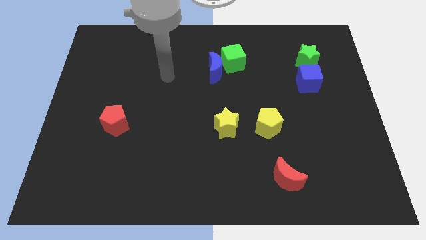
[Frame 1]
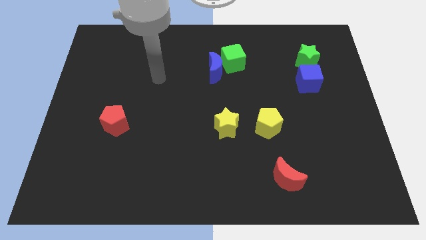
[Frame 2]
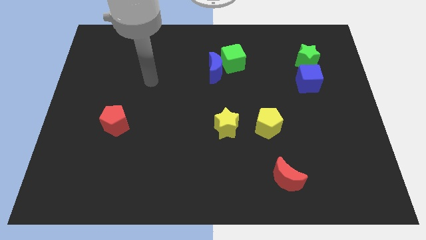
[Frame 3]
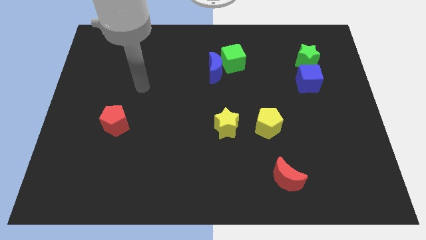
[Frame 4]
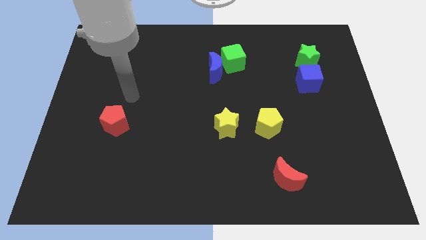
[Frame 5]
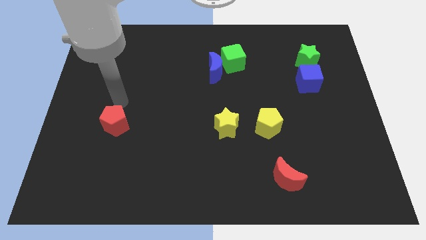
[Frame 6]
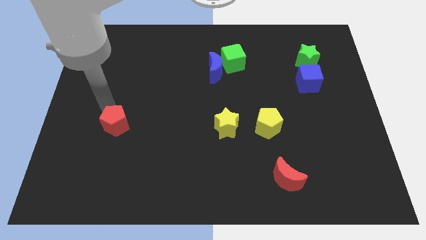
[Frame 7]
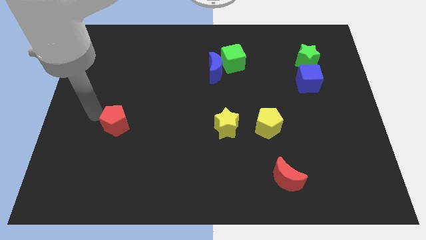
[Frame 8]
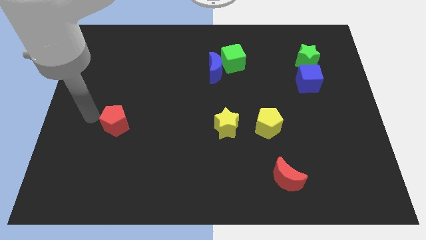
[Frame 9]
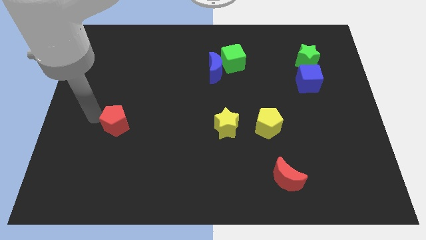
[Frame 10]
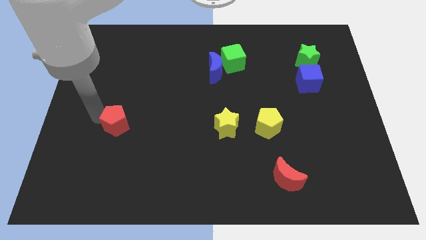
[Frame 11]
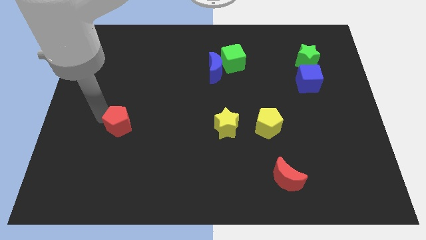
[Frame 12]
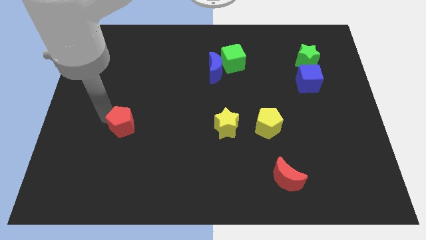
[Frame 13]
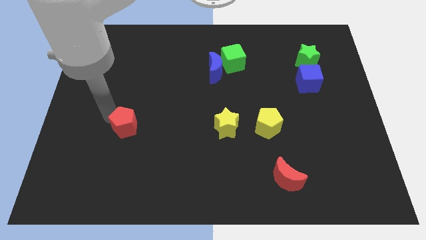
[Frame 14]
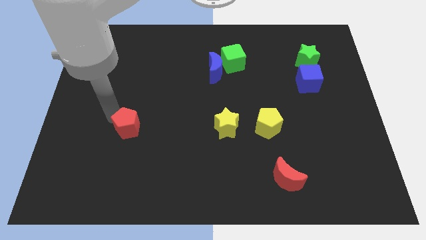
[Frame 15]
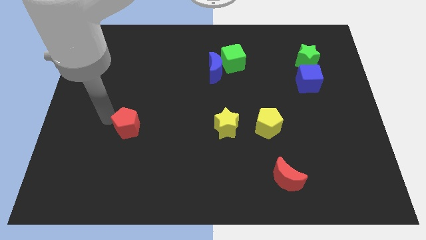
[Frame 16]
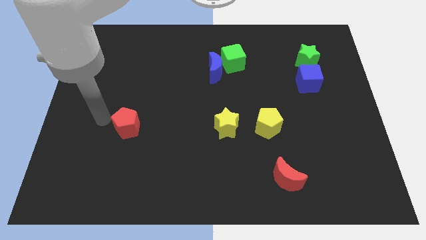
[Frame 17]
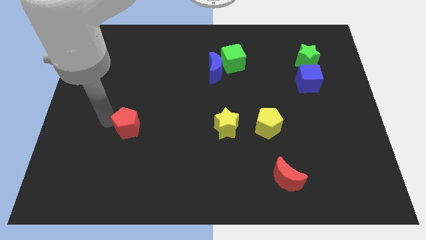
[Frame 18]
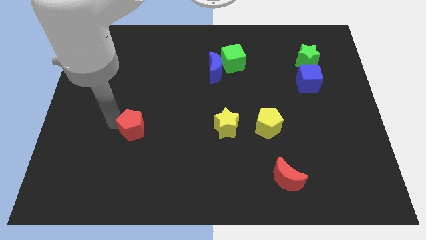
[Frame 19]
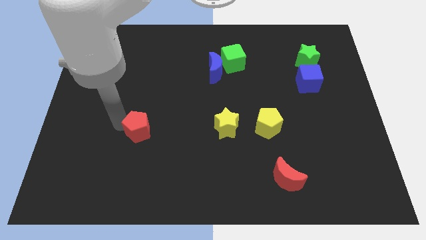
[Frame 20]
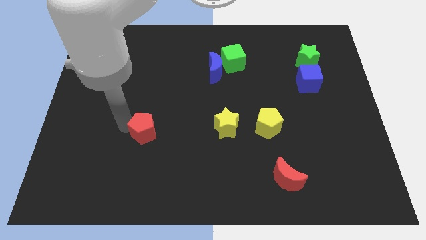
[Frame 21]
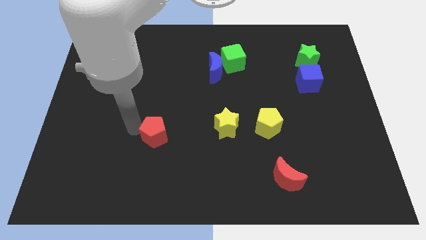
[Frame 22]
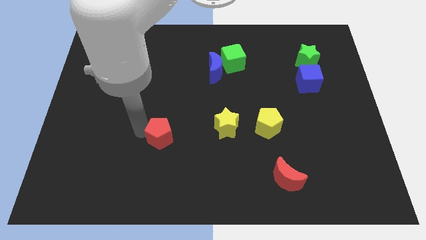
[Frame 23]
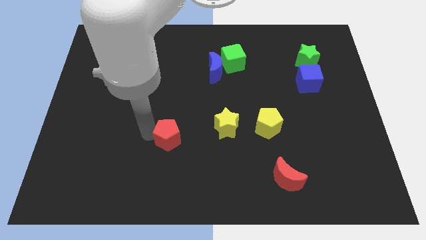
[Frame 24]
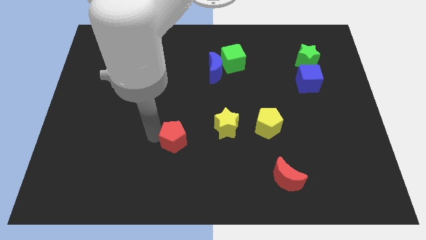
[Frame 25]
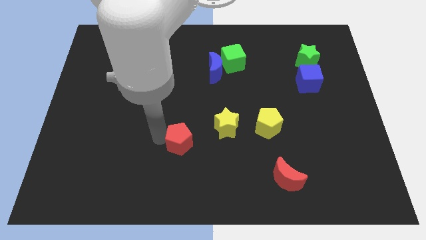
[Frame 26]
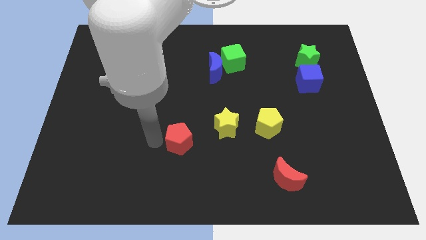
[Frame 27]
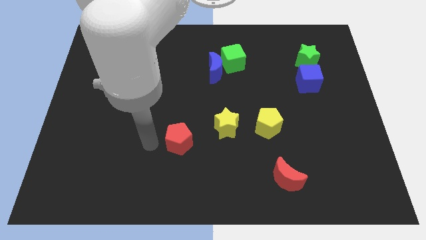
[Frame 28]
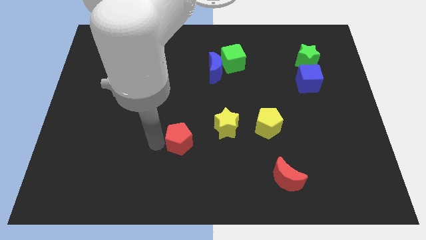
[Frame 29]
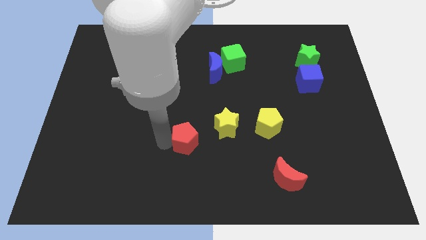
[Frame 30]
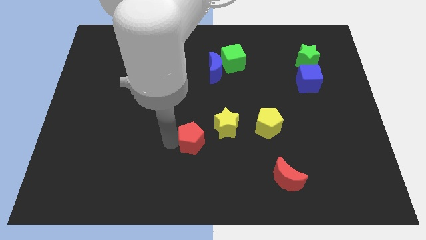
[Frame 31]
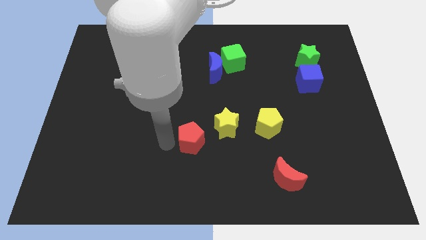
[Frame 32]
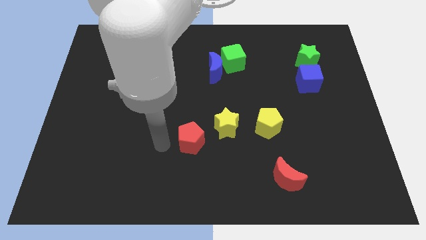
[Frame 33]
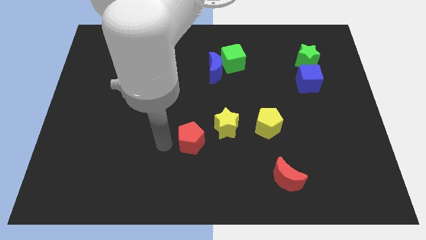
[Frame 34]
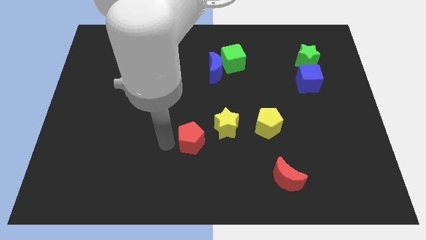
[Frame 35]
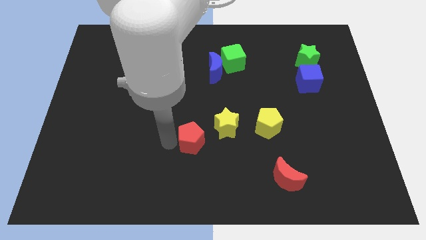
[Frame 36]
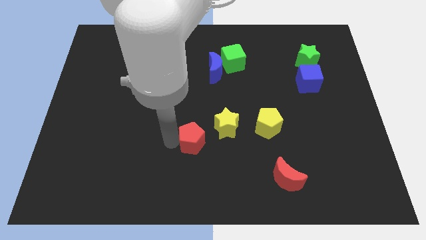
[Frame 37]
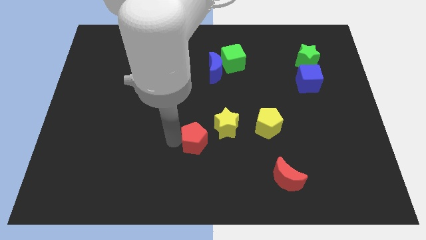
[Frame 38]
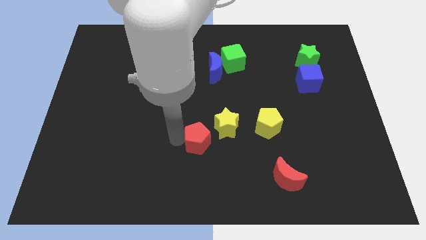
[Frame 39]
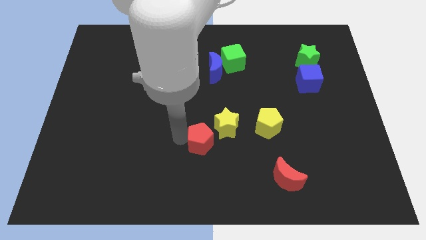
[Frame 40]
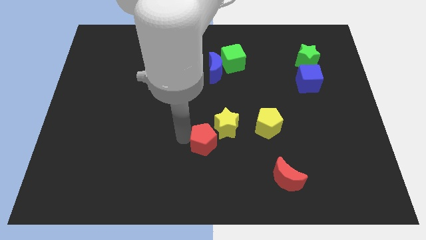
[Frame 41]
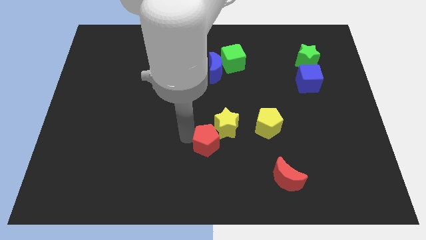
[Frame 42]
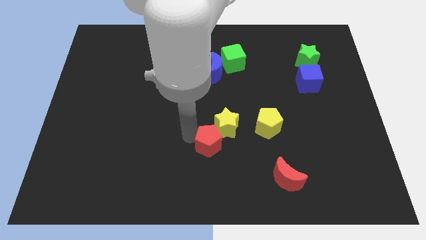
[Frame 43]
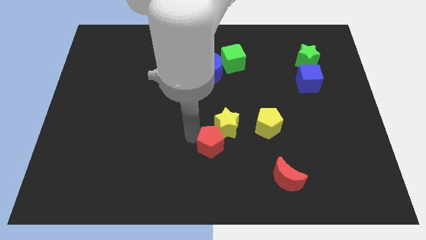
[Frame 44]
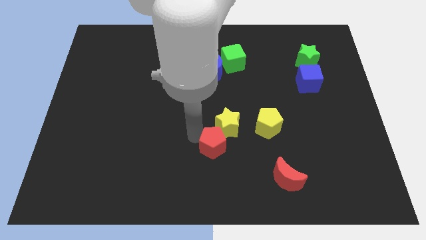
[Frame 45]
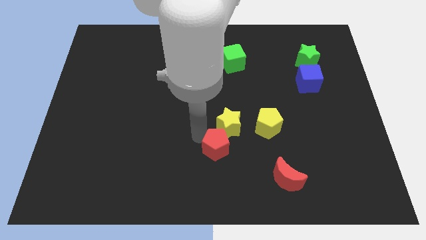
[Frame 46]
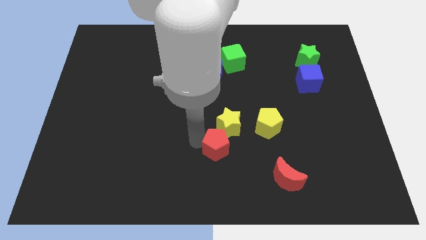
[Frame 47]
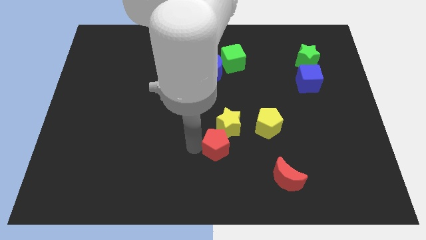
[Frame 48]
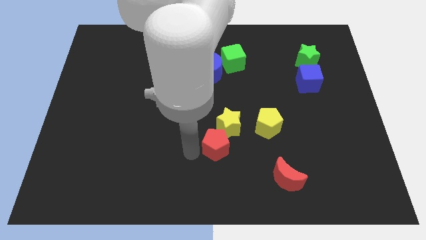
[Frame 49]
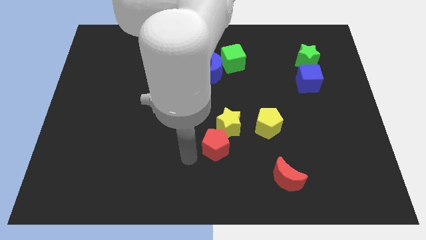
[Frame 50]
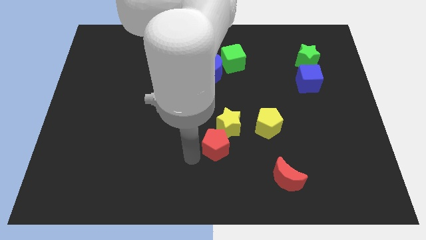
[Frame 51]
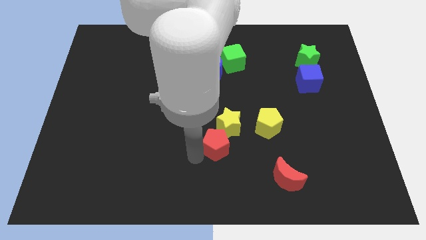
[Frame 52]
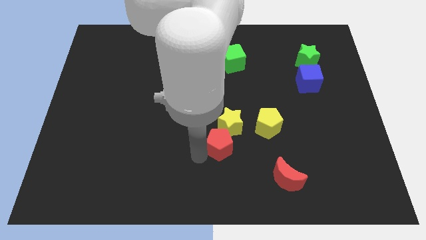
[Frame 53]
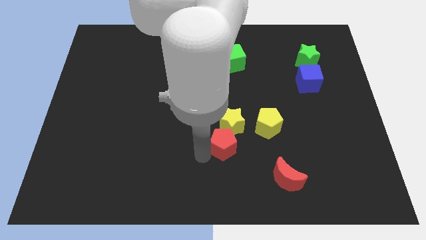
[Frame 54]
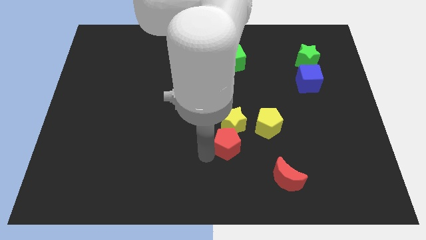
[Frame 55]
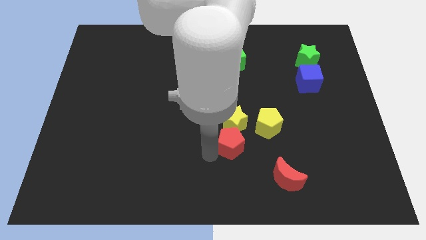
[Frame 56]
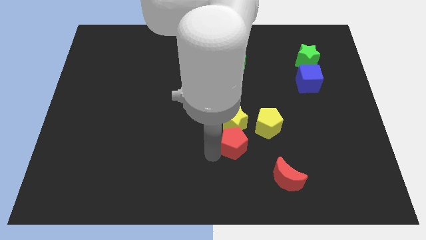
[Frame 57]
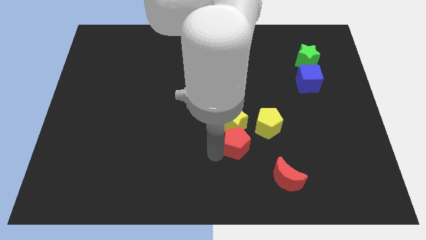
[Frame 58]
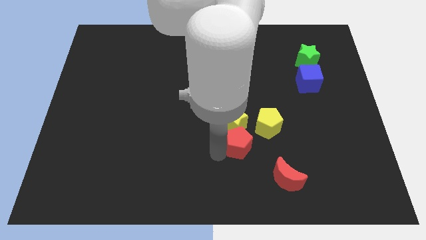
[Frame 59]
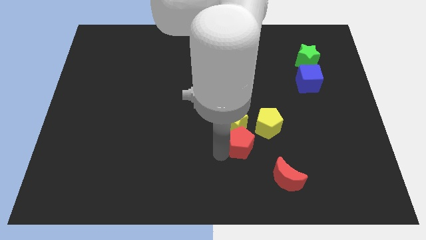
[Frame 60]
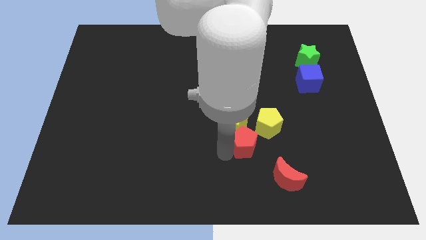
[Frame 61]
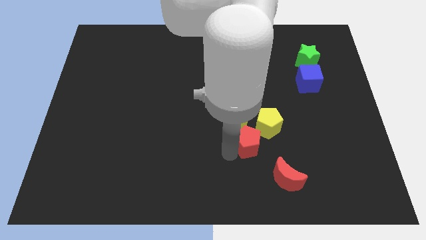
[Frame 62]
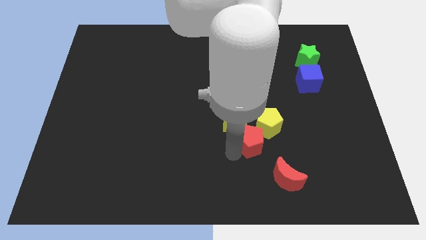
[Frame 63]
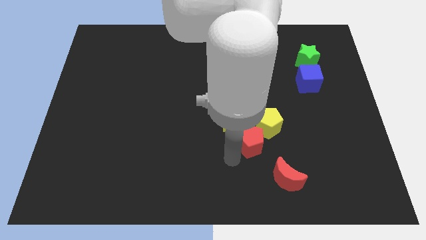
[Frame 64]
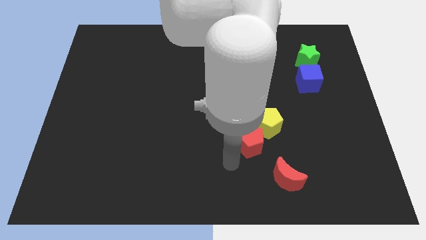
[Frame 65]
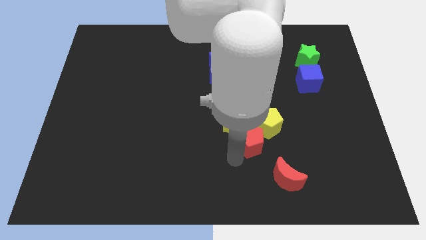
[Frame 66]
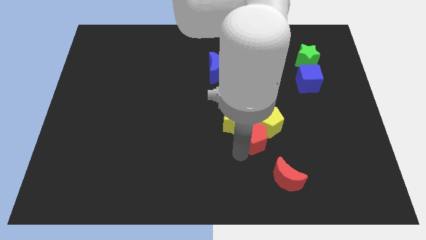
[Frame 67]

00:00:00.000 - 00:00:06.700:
move the red pentagon next to the yellow pentagon

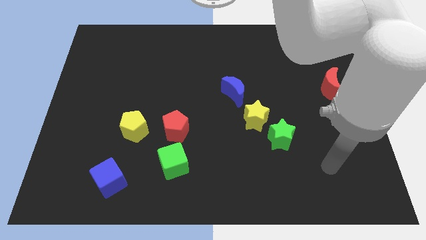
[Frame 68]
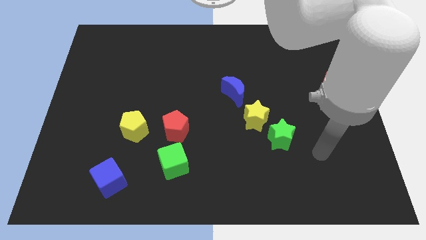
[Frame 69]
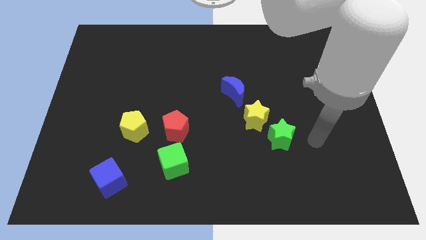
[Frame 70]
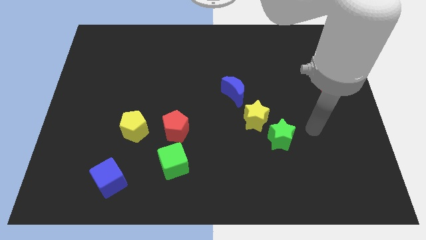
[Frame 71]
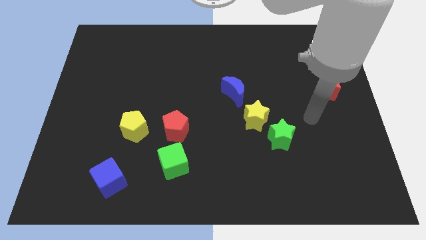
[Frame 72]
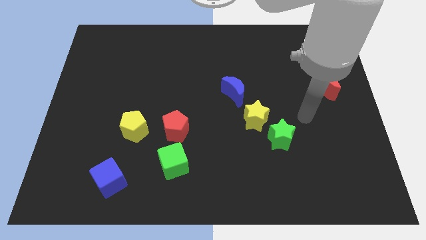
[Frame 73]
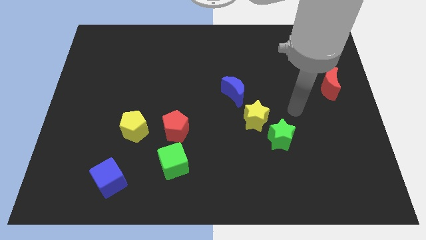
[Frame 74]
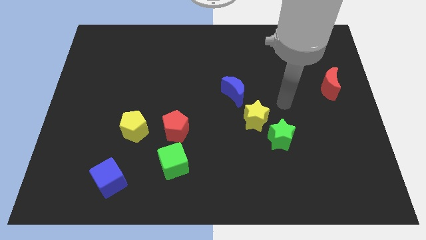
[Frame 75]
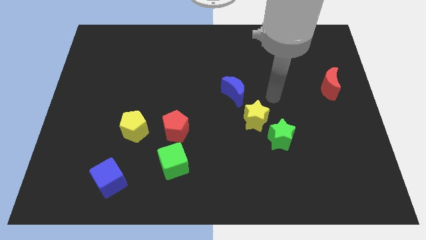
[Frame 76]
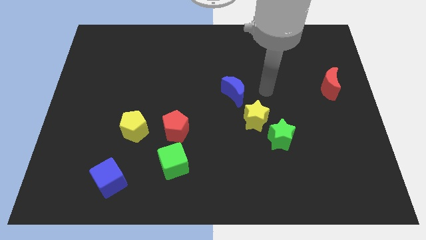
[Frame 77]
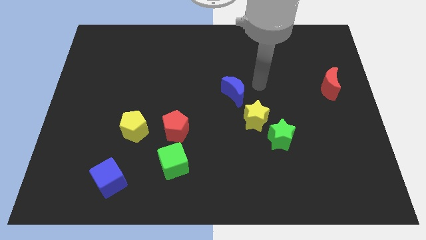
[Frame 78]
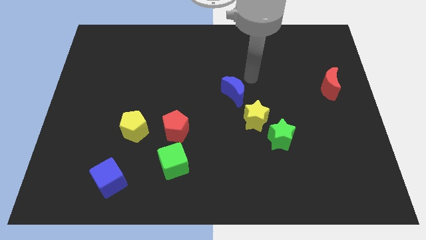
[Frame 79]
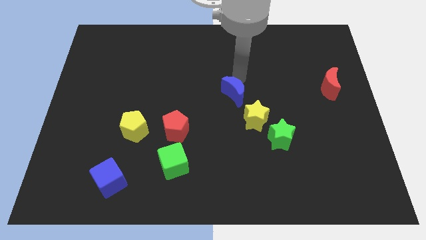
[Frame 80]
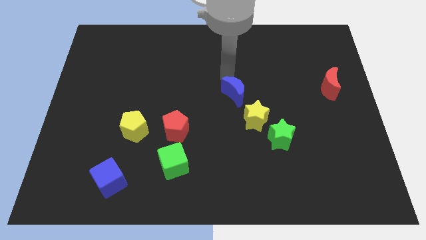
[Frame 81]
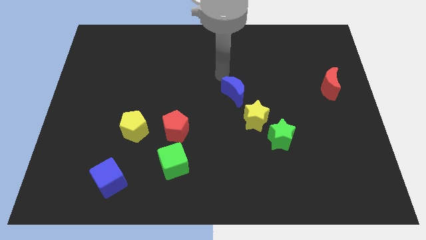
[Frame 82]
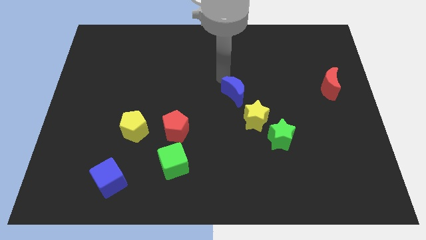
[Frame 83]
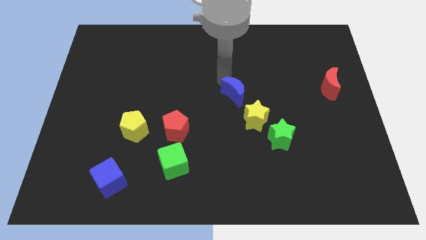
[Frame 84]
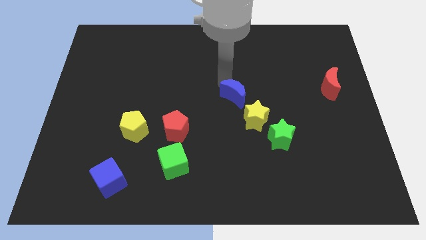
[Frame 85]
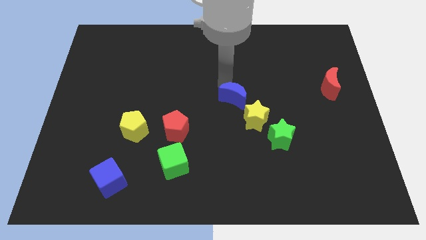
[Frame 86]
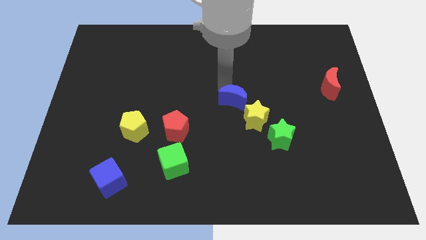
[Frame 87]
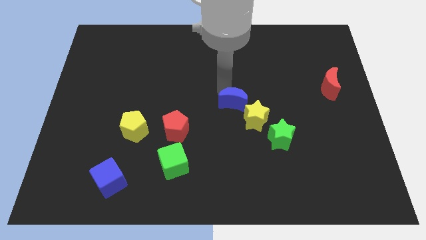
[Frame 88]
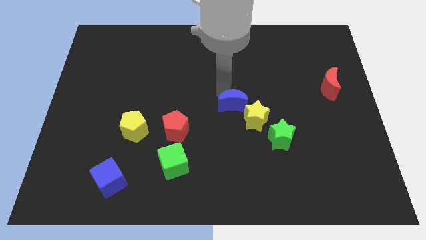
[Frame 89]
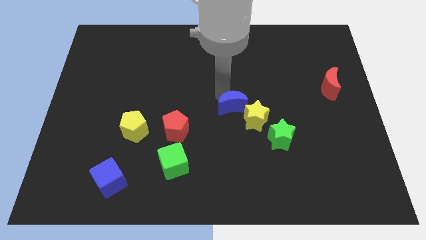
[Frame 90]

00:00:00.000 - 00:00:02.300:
slide the blue moon towards the yellow star
